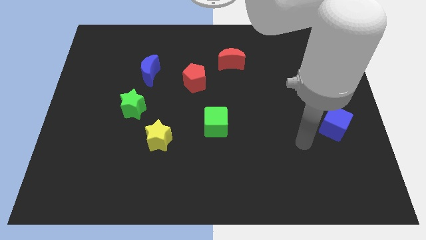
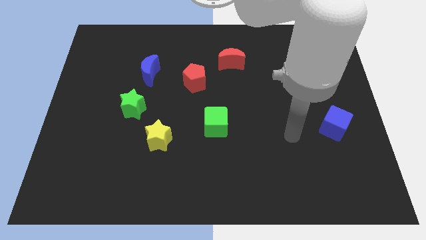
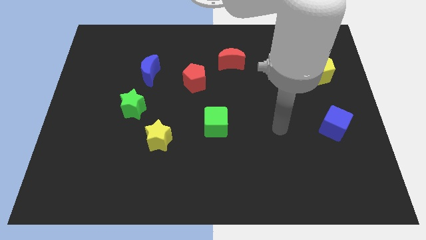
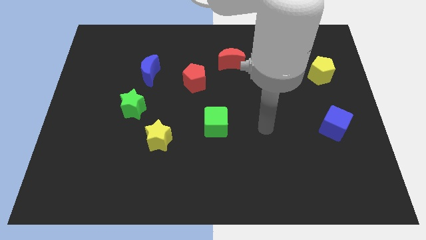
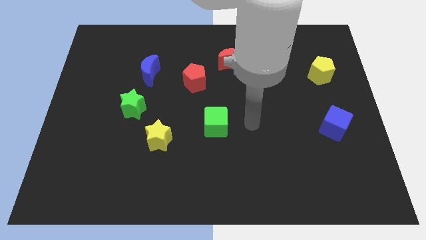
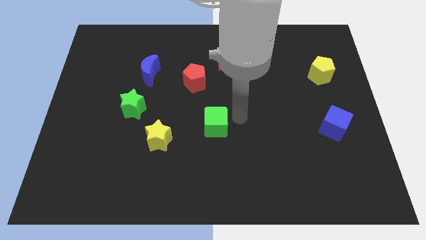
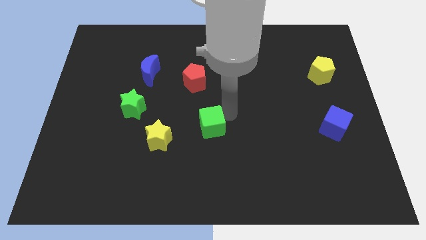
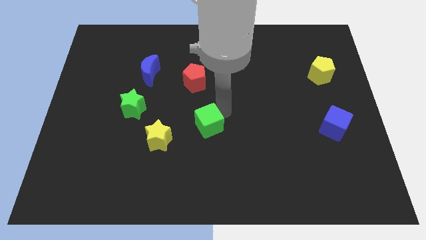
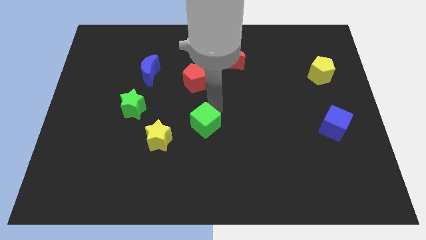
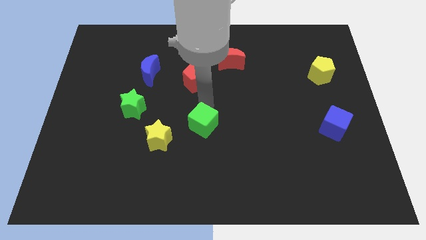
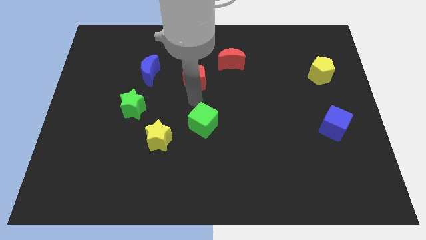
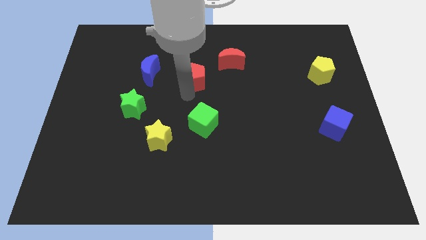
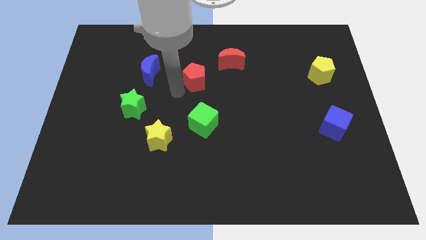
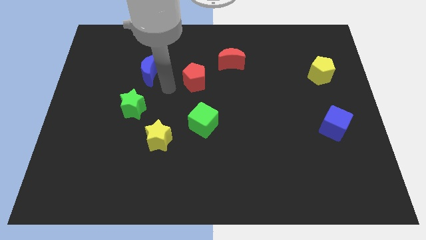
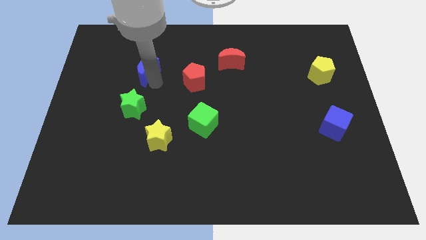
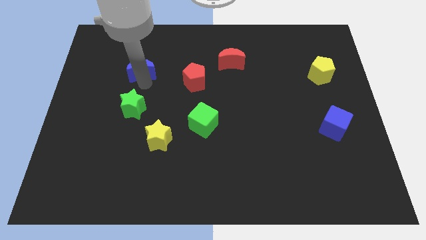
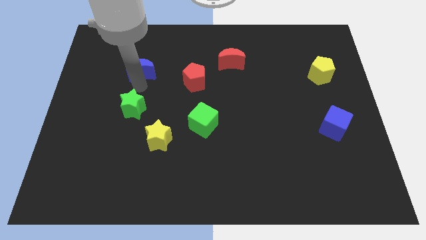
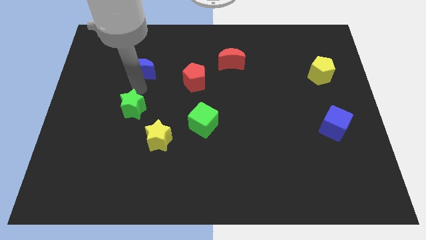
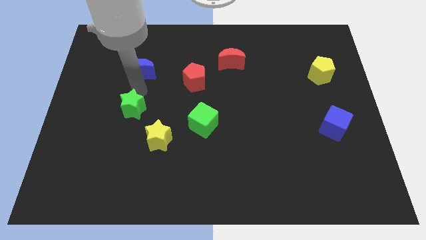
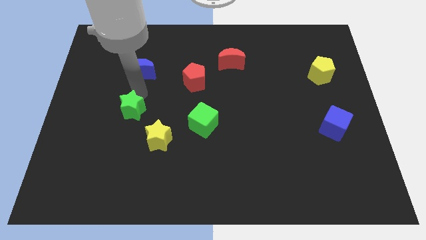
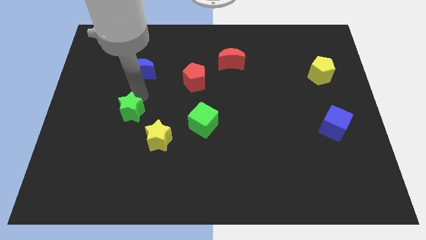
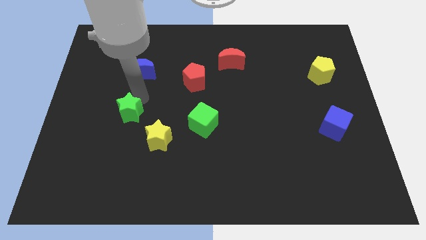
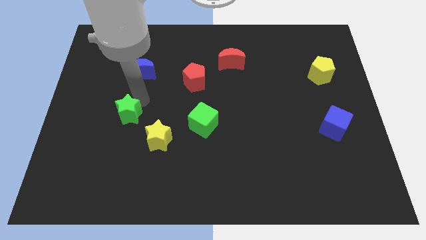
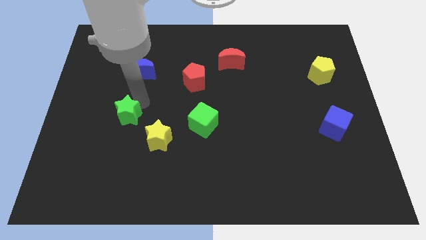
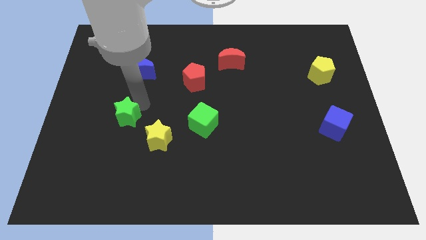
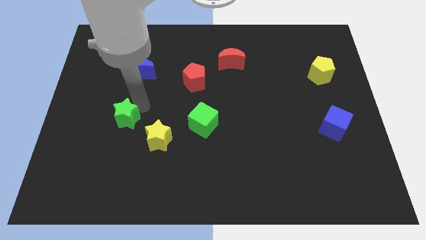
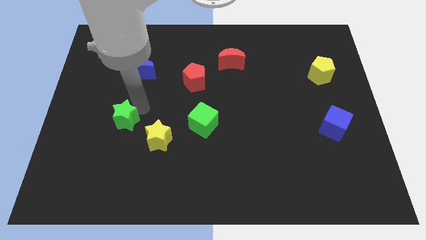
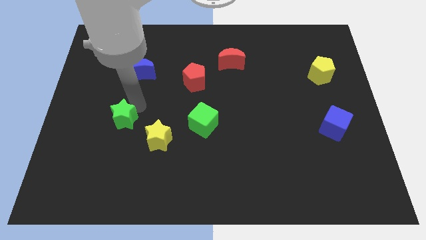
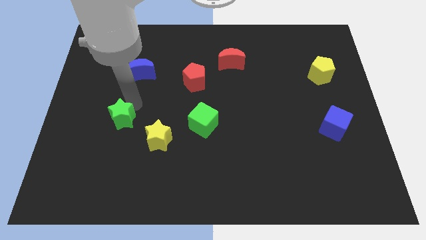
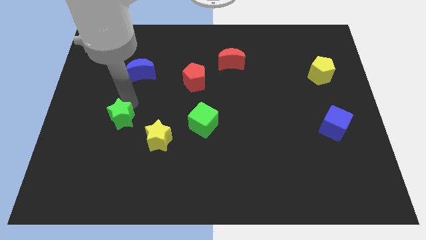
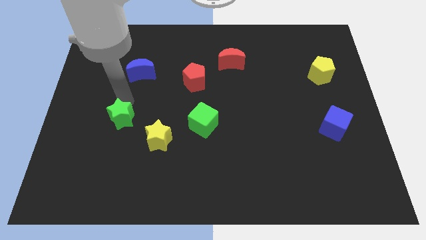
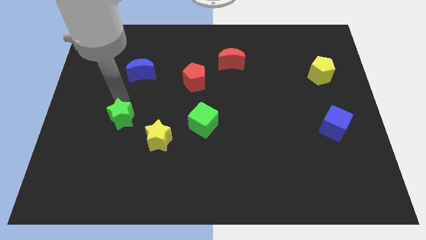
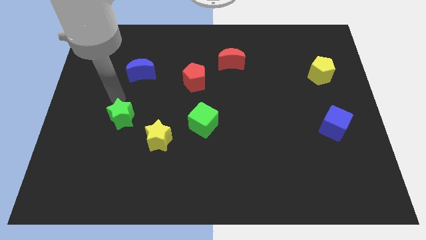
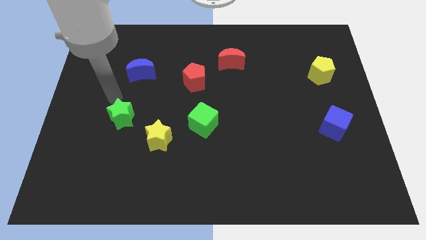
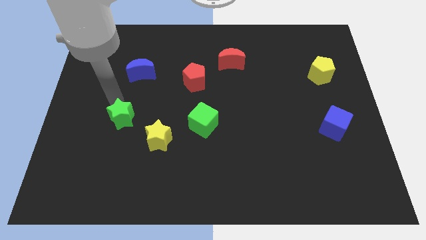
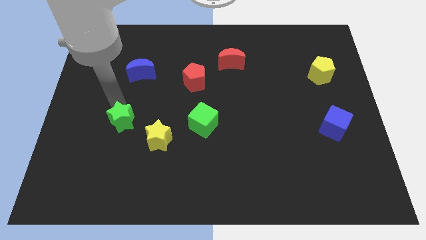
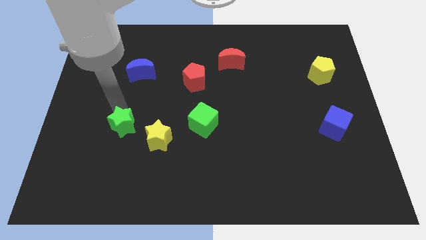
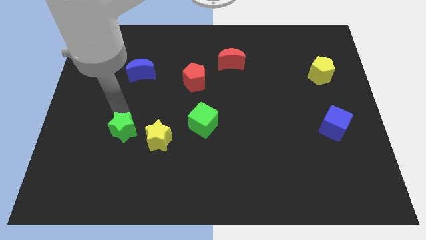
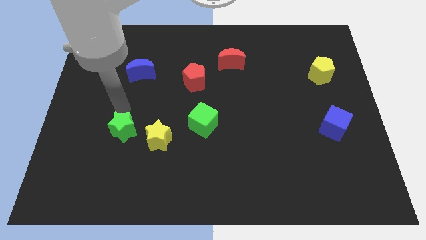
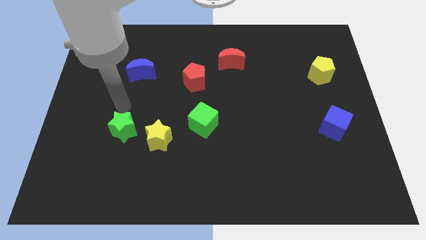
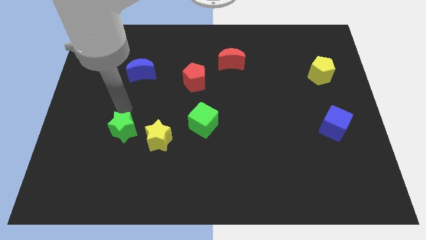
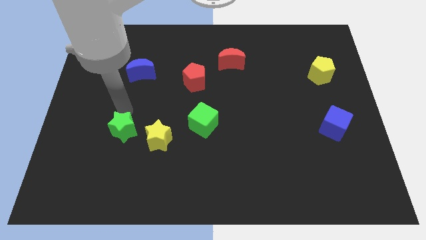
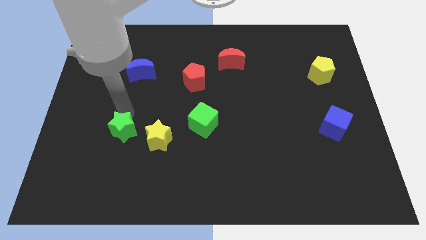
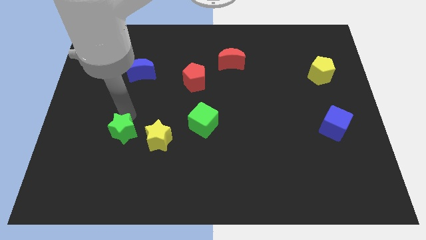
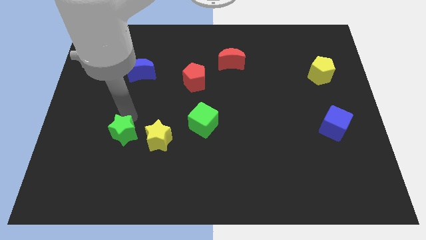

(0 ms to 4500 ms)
push the green star down somewhat

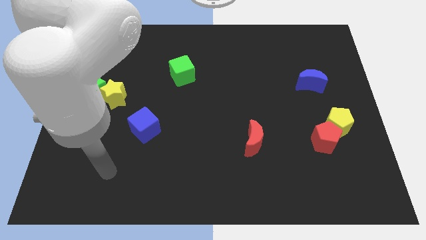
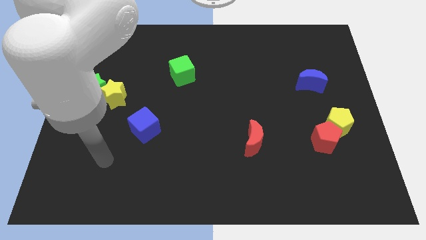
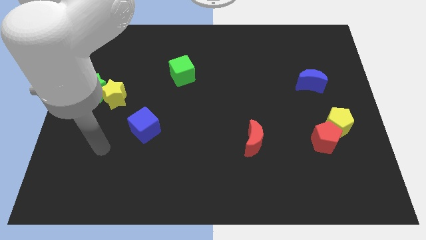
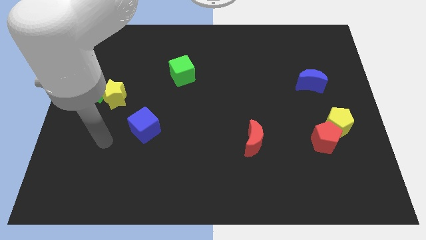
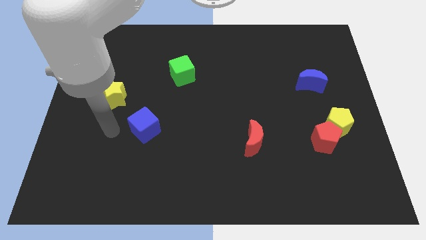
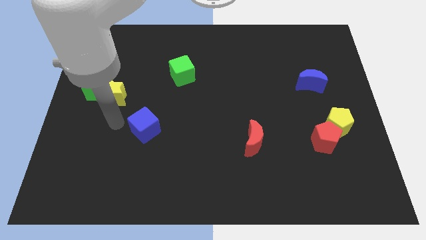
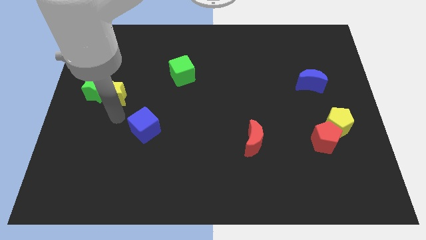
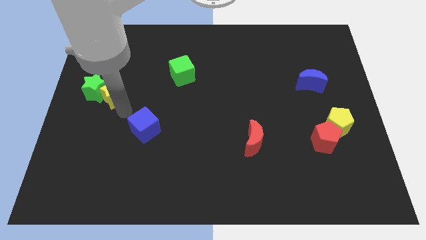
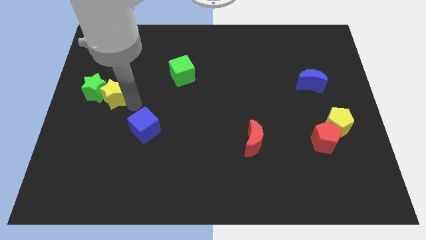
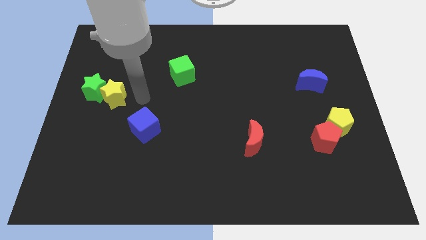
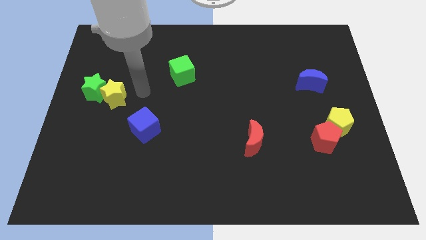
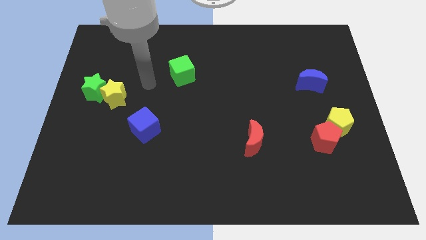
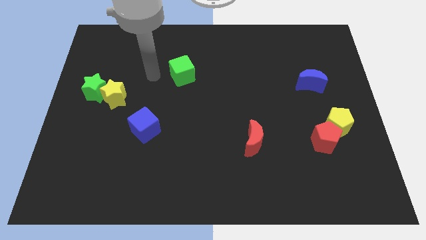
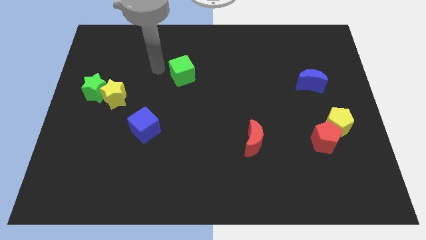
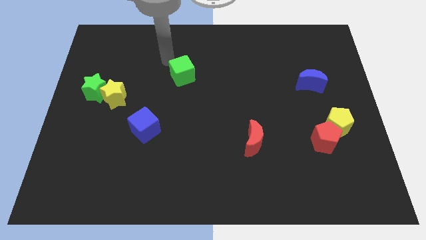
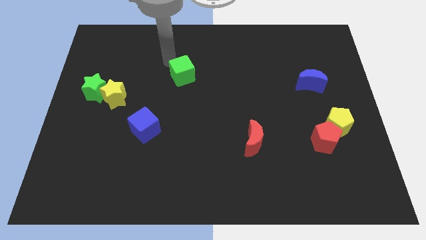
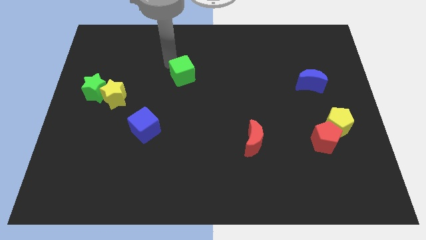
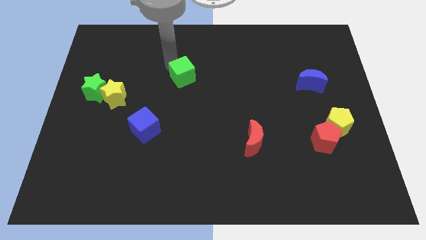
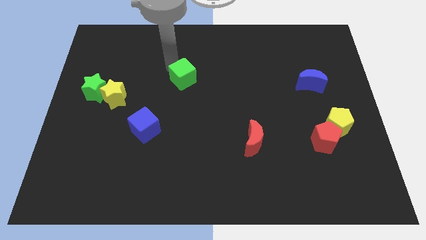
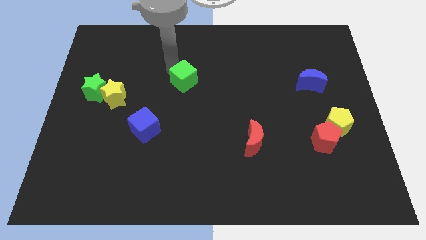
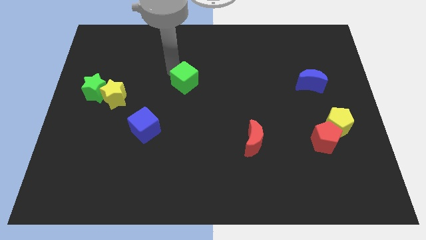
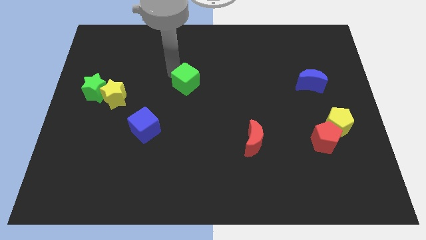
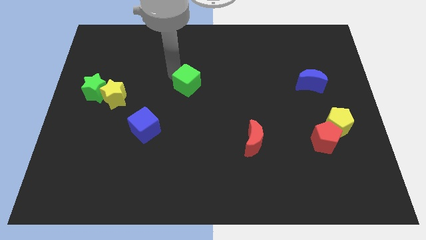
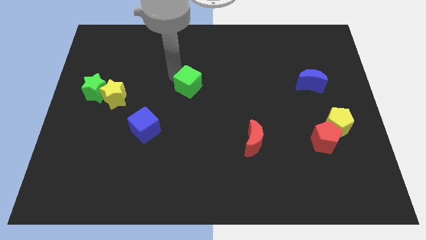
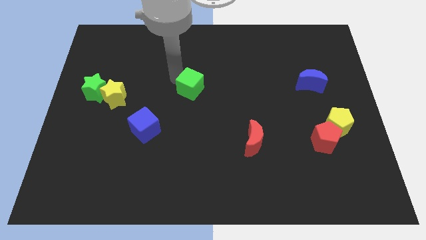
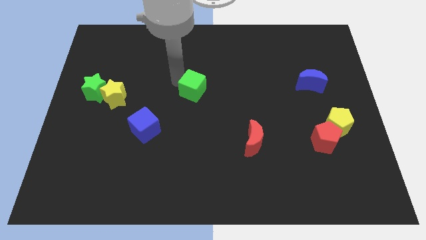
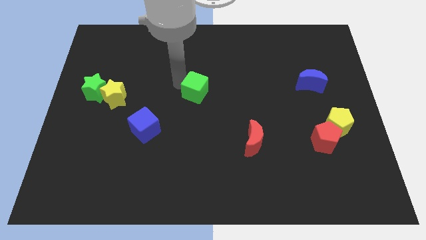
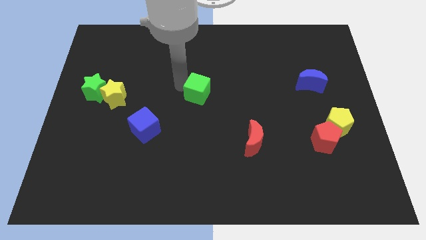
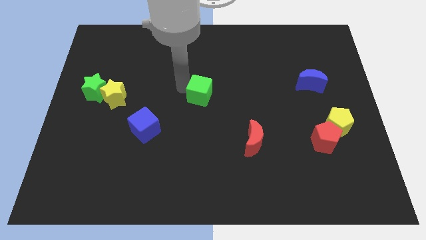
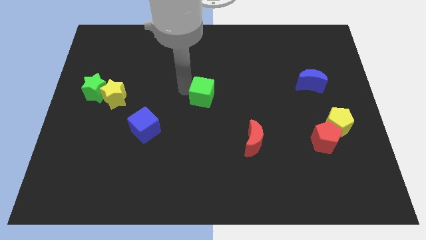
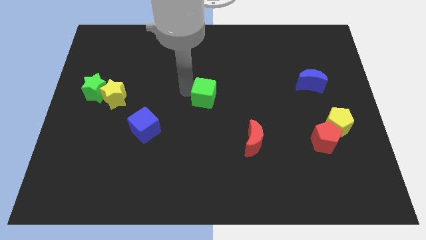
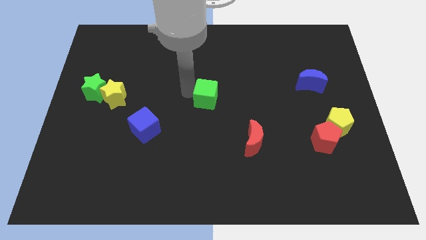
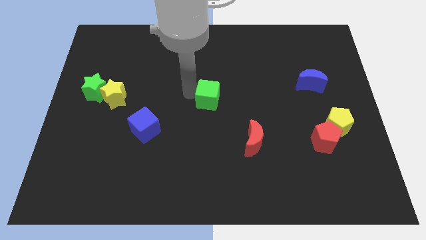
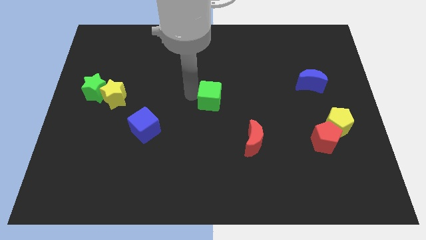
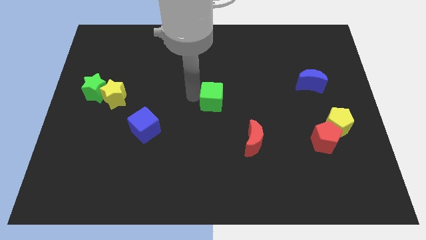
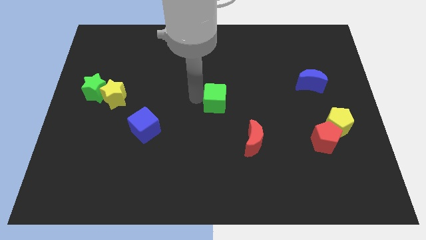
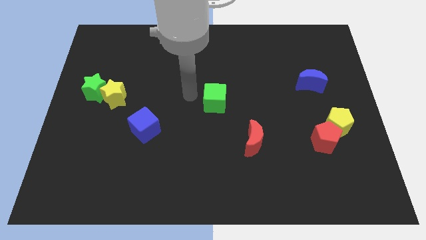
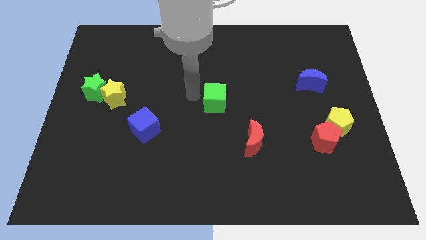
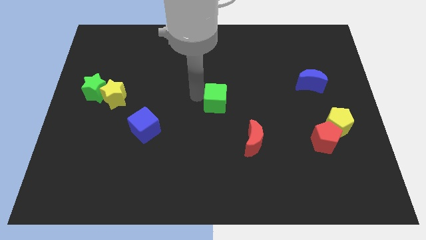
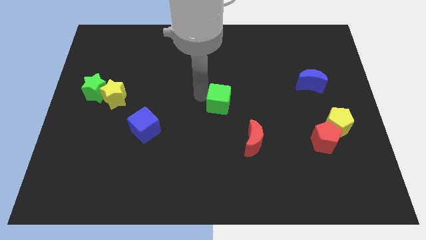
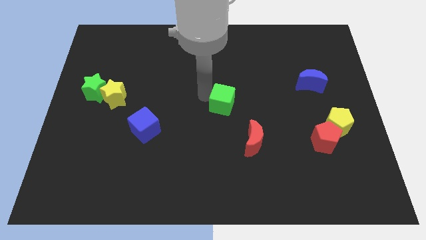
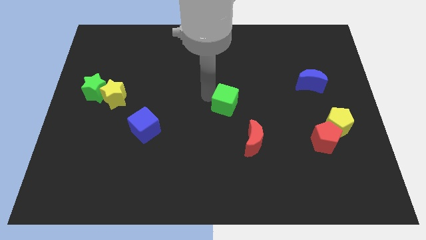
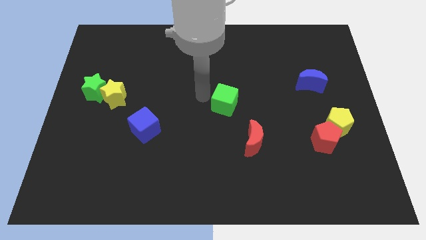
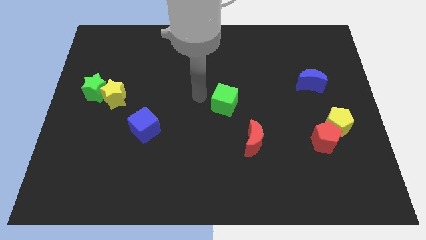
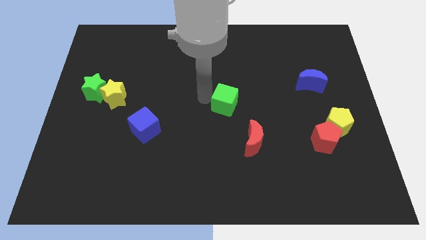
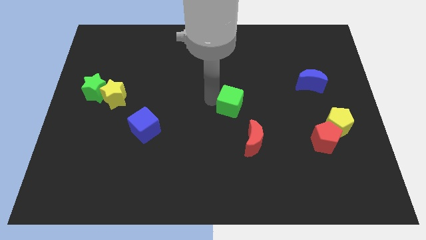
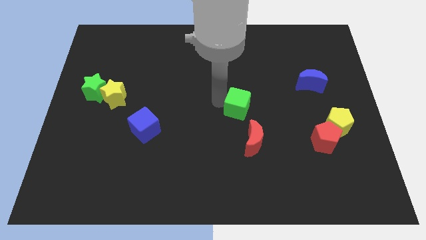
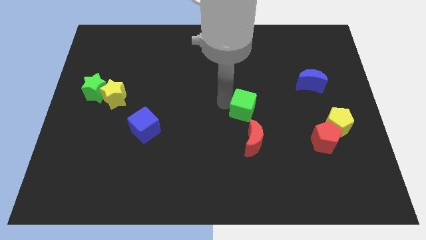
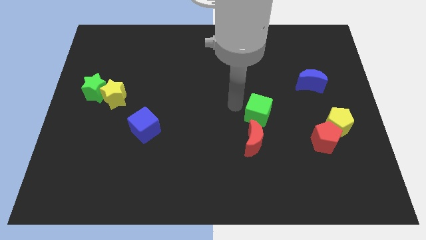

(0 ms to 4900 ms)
push the green cube diagonally downwards and to the right
